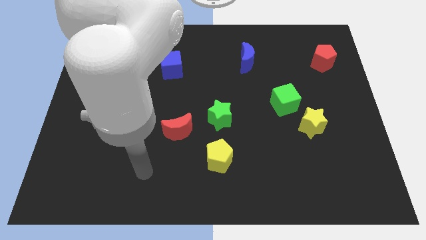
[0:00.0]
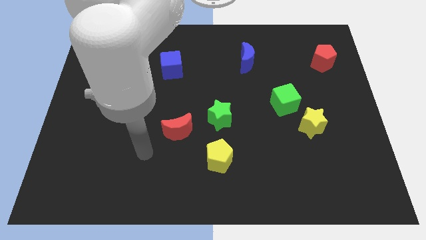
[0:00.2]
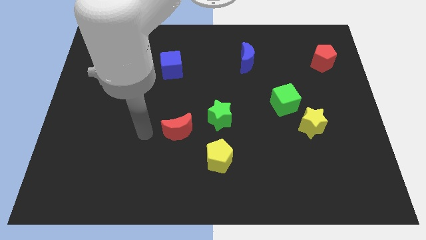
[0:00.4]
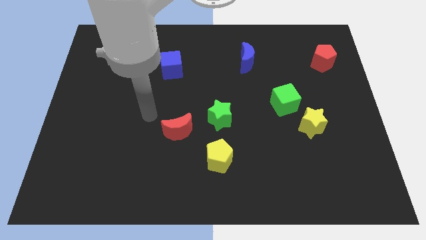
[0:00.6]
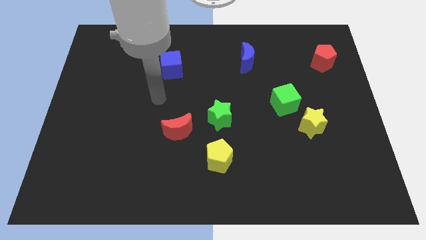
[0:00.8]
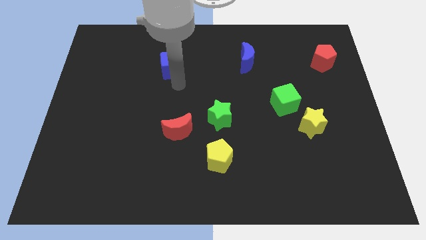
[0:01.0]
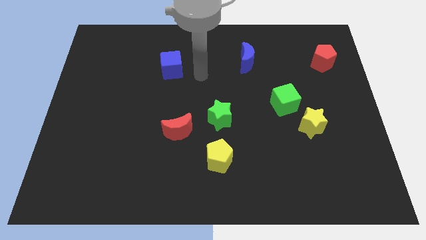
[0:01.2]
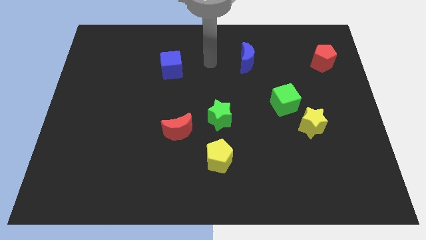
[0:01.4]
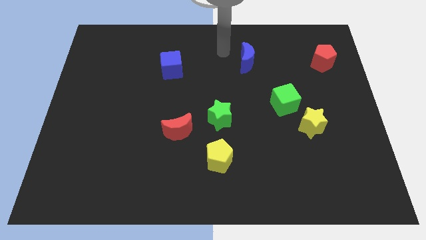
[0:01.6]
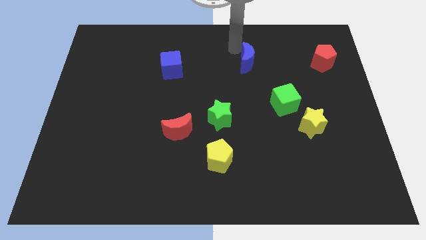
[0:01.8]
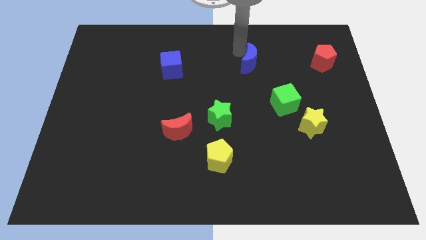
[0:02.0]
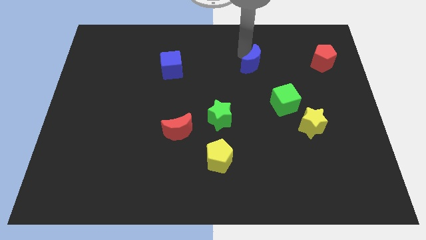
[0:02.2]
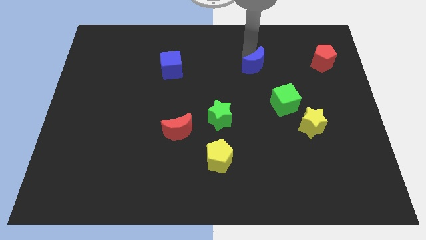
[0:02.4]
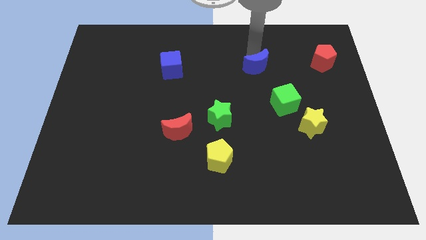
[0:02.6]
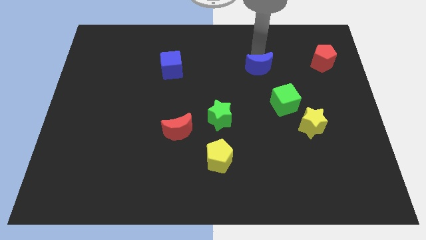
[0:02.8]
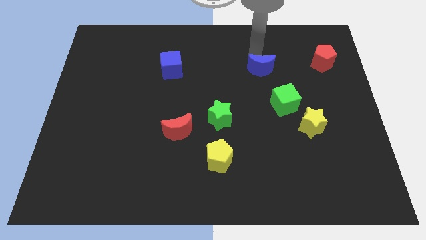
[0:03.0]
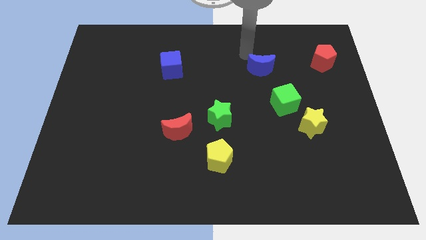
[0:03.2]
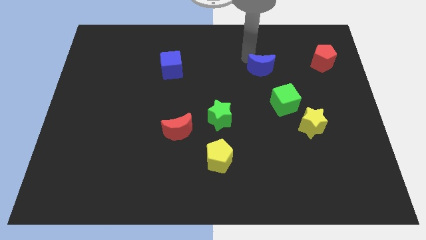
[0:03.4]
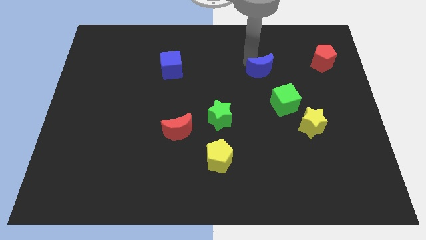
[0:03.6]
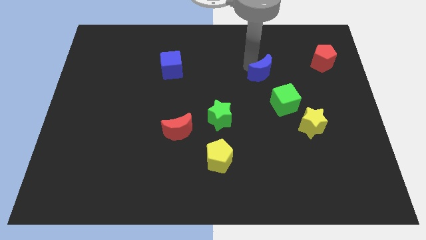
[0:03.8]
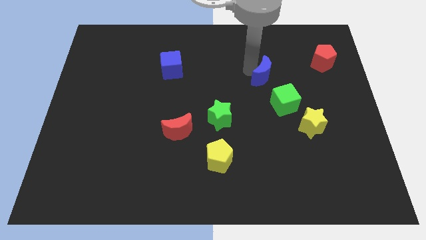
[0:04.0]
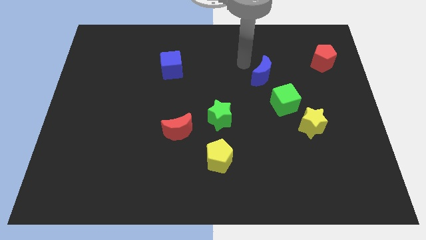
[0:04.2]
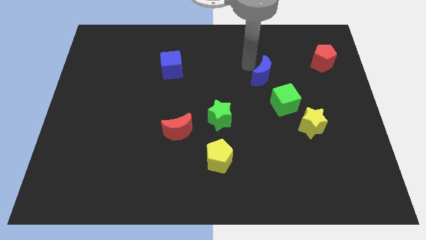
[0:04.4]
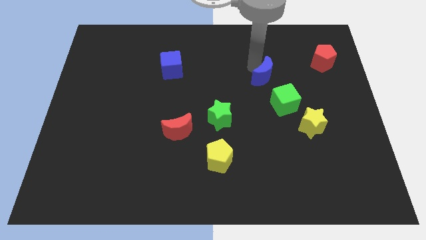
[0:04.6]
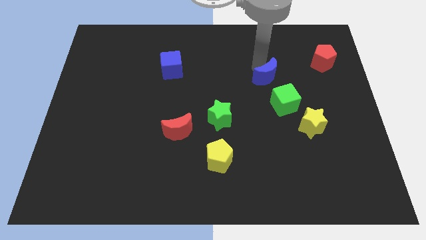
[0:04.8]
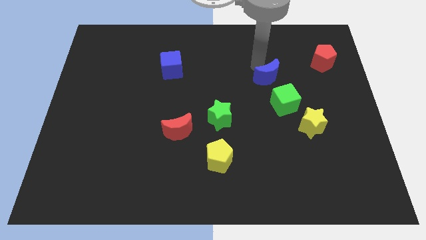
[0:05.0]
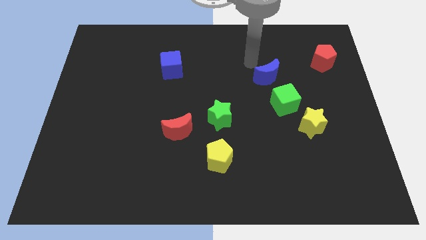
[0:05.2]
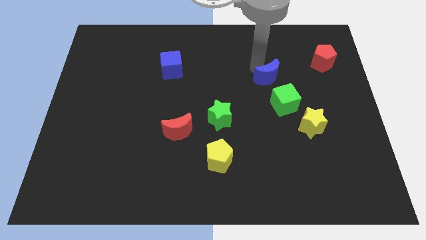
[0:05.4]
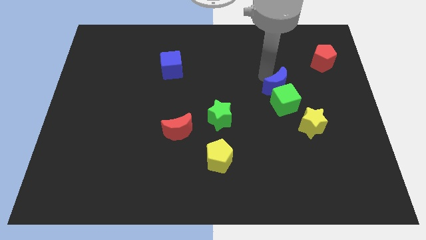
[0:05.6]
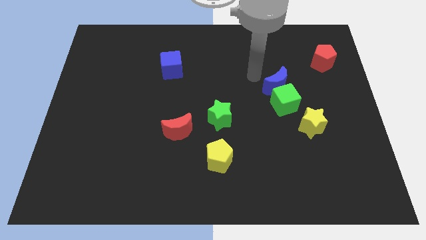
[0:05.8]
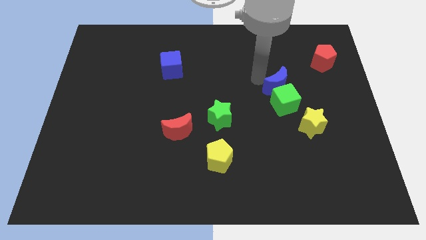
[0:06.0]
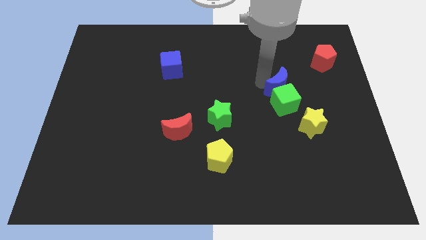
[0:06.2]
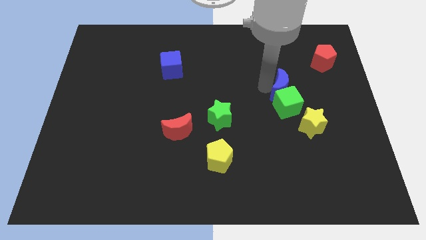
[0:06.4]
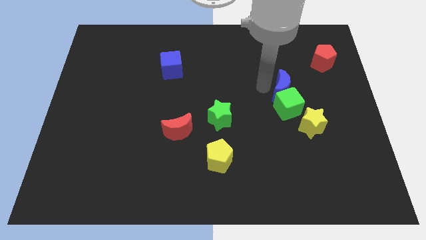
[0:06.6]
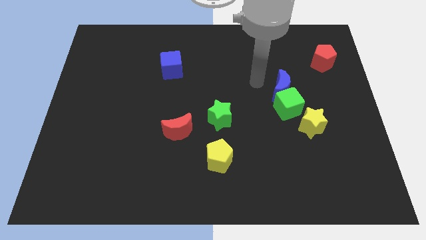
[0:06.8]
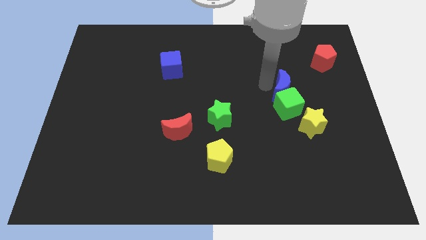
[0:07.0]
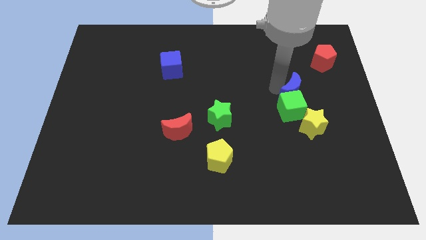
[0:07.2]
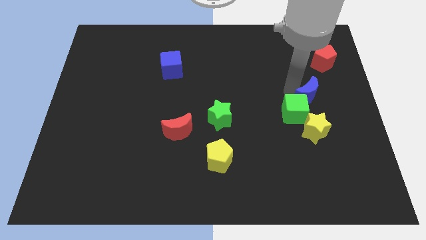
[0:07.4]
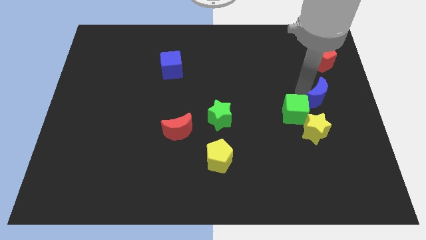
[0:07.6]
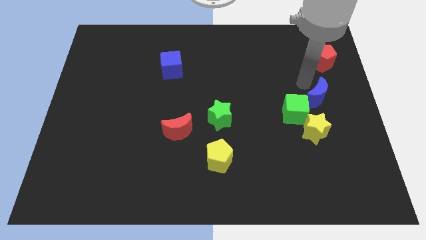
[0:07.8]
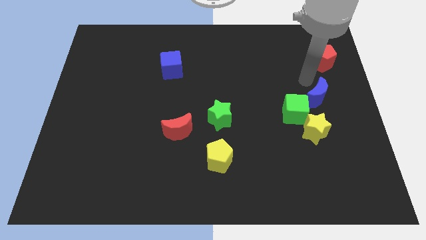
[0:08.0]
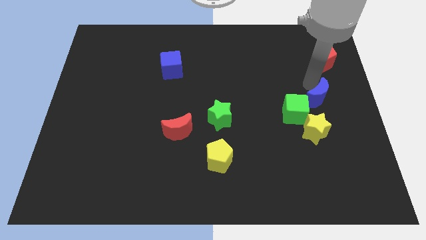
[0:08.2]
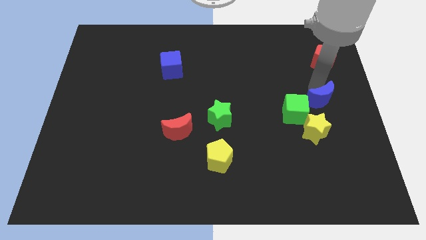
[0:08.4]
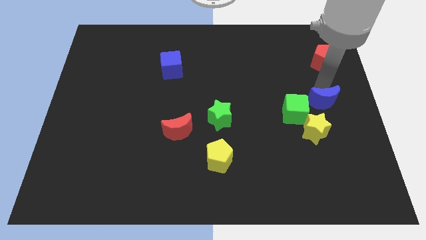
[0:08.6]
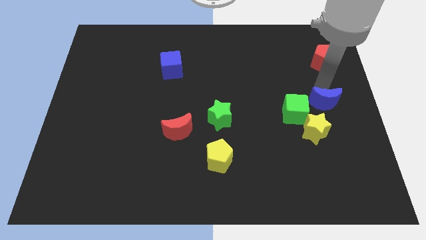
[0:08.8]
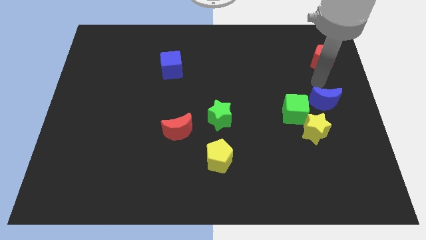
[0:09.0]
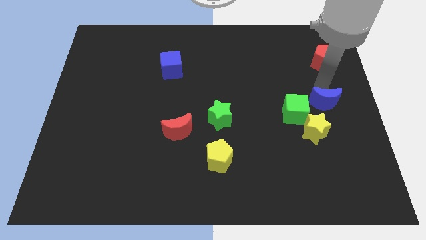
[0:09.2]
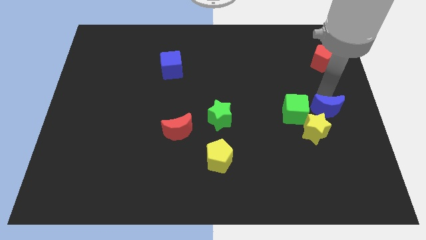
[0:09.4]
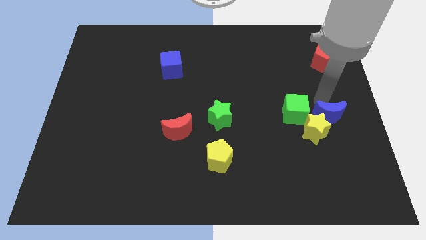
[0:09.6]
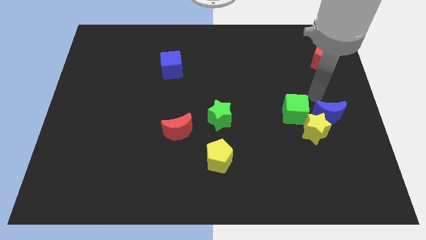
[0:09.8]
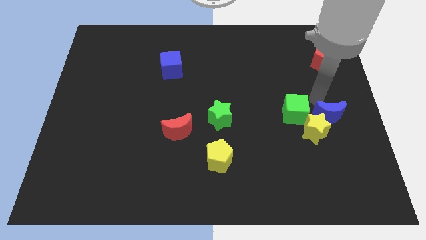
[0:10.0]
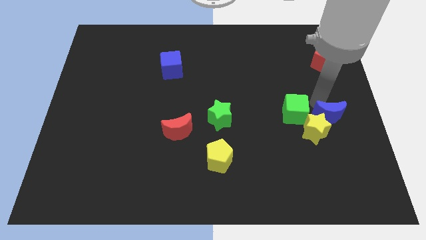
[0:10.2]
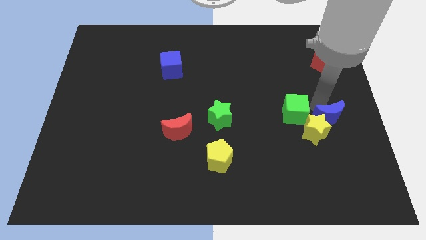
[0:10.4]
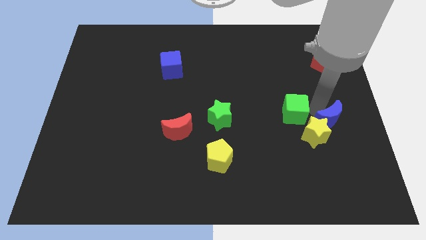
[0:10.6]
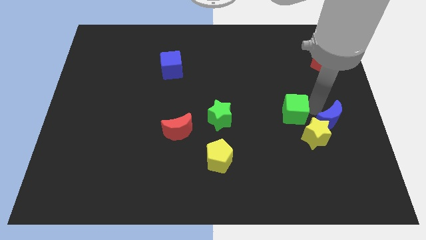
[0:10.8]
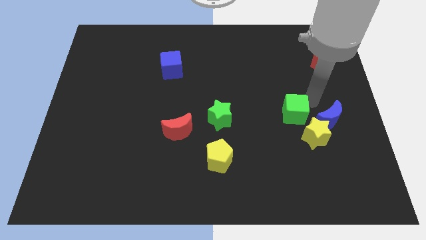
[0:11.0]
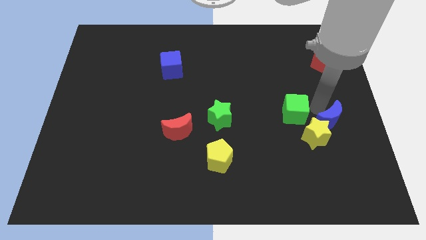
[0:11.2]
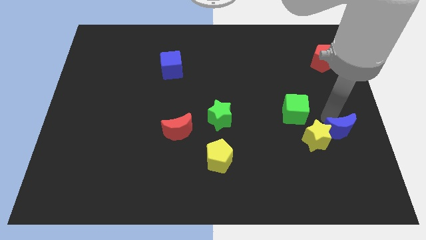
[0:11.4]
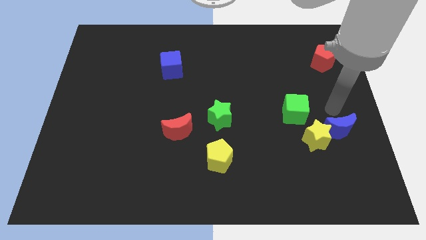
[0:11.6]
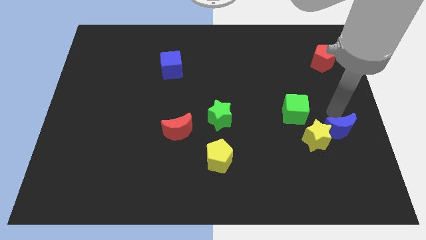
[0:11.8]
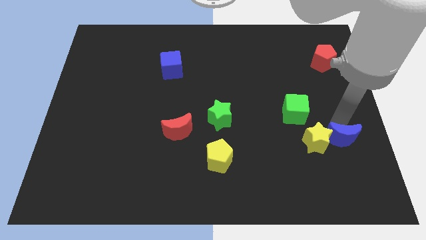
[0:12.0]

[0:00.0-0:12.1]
put the blue moon to the bottom right of the yellow star
